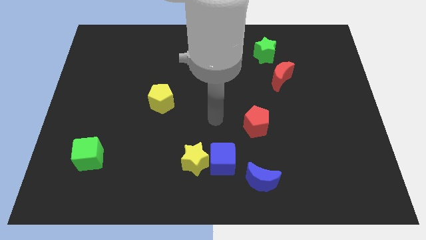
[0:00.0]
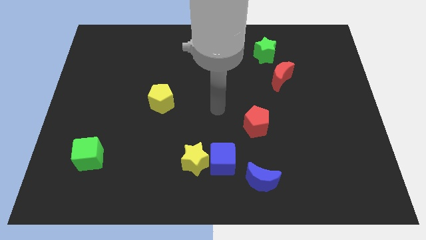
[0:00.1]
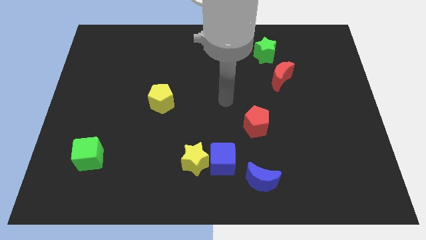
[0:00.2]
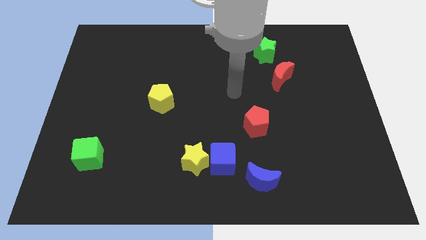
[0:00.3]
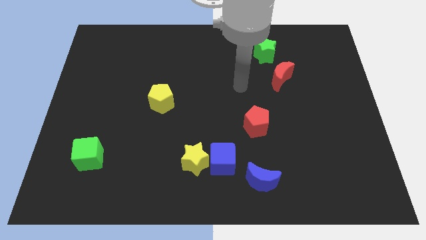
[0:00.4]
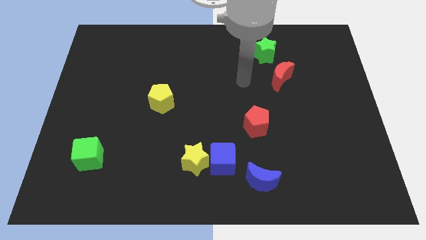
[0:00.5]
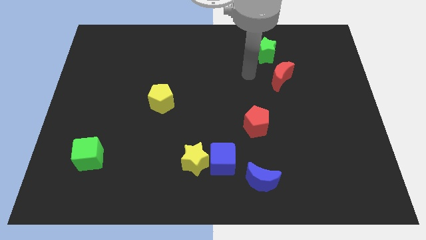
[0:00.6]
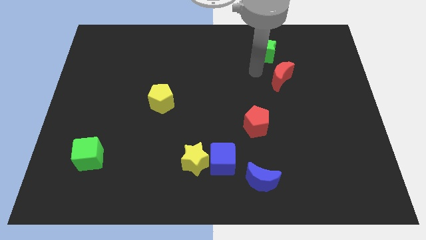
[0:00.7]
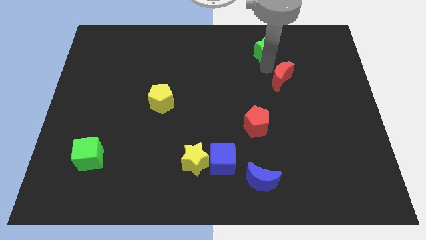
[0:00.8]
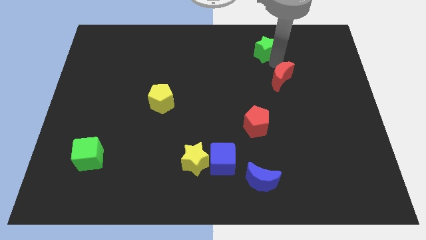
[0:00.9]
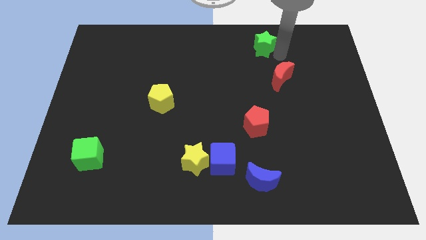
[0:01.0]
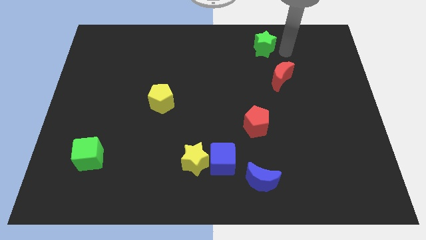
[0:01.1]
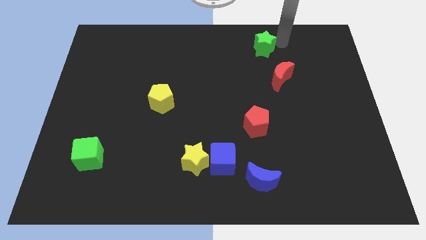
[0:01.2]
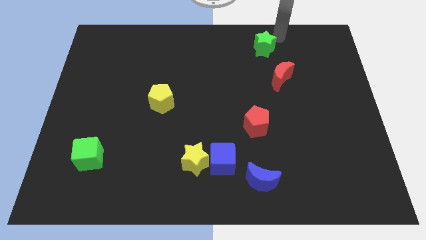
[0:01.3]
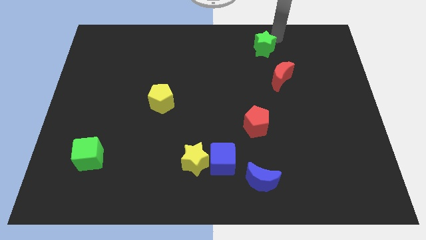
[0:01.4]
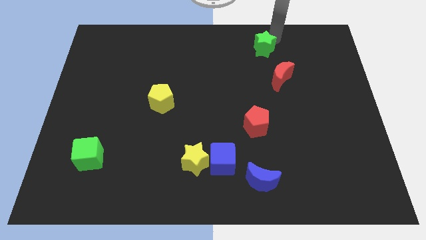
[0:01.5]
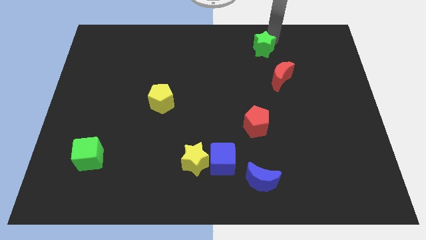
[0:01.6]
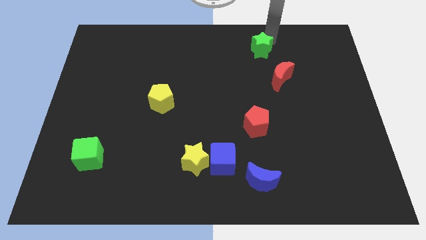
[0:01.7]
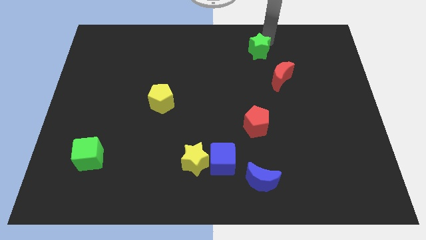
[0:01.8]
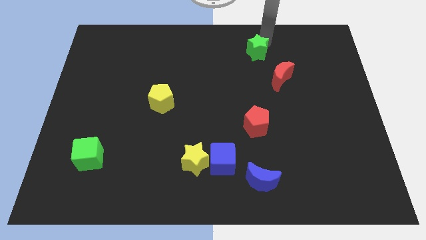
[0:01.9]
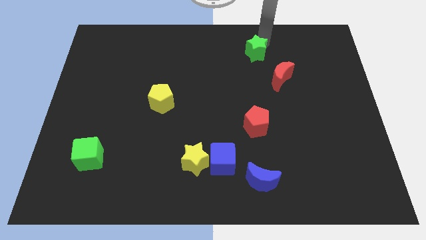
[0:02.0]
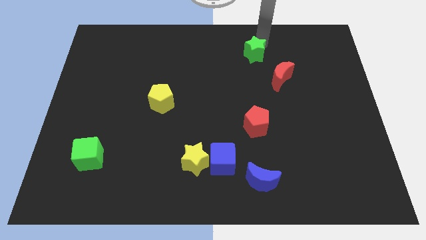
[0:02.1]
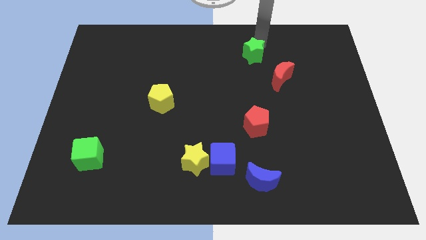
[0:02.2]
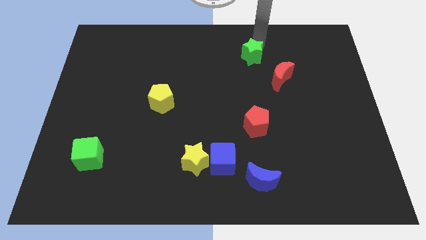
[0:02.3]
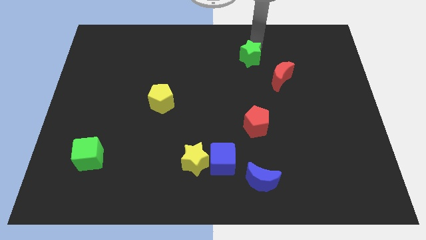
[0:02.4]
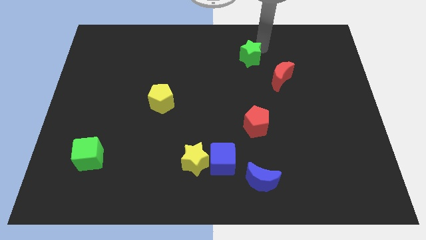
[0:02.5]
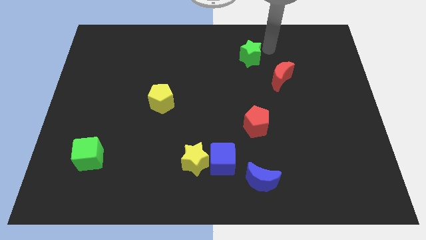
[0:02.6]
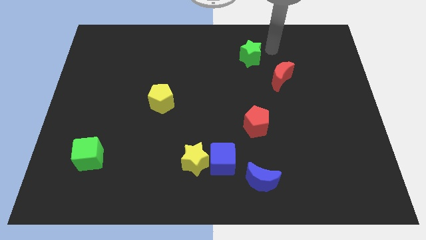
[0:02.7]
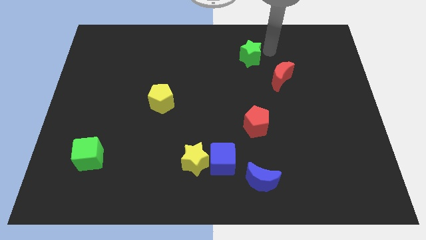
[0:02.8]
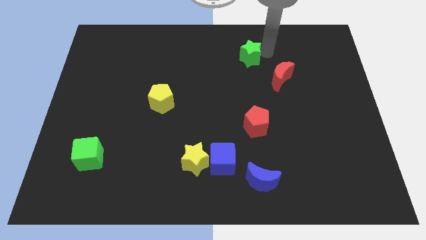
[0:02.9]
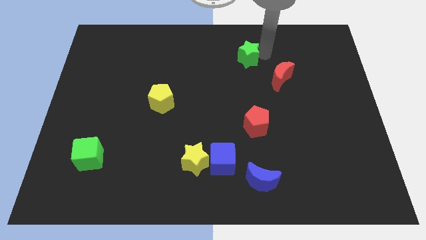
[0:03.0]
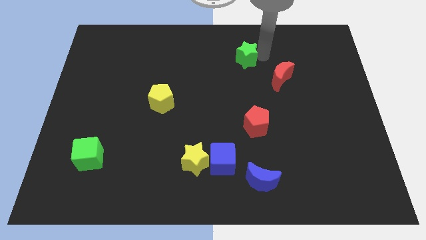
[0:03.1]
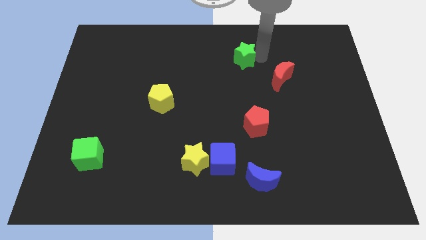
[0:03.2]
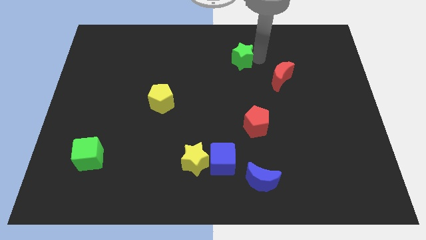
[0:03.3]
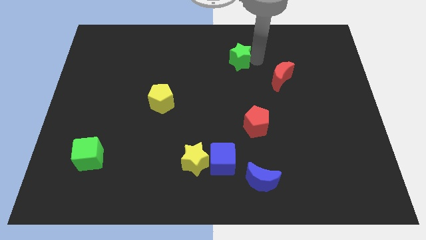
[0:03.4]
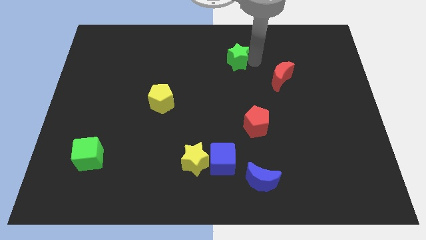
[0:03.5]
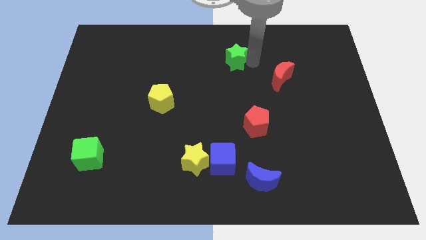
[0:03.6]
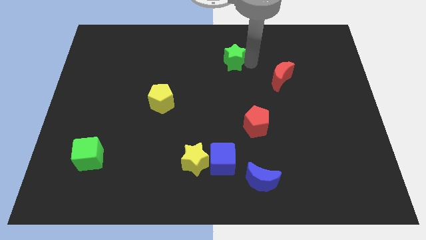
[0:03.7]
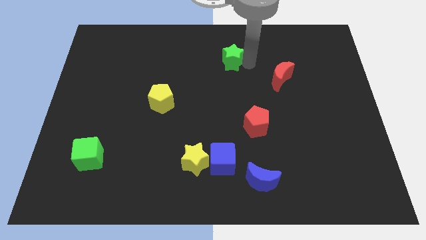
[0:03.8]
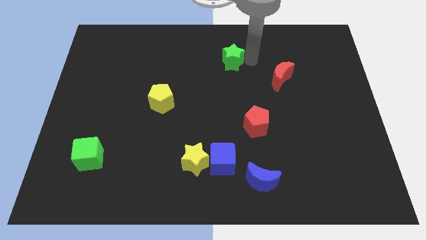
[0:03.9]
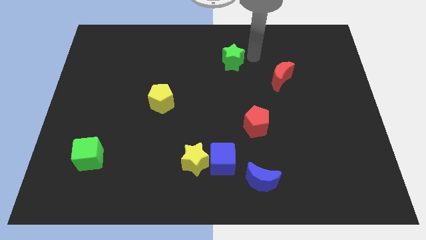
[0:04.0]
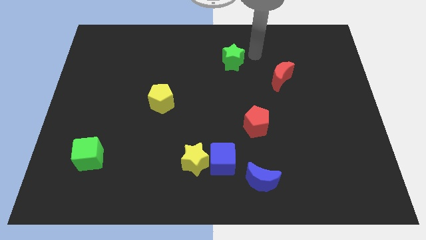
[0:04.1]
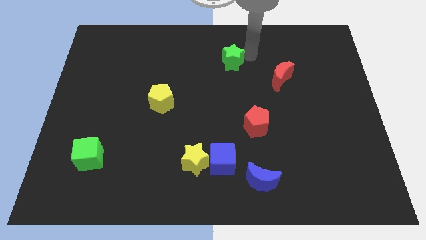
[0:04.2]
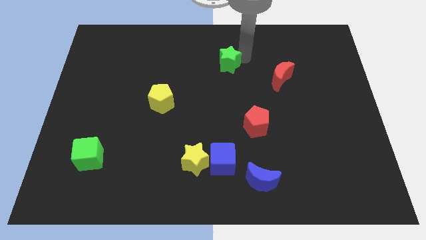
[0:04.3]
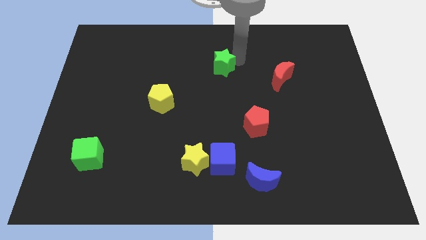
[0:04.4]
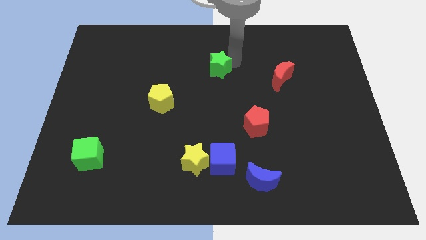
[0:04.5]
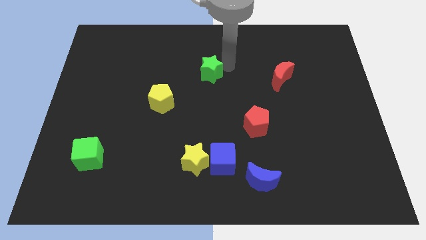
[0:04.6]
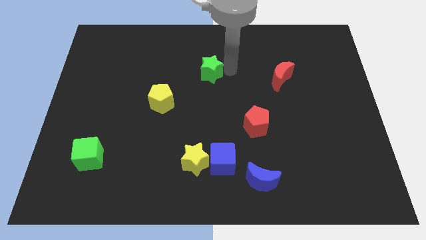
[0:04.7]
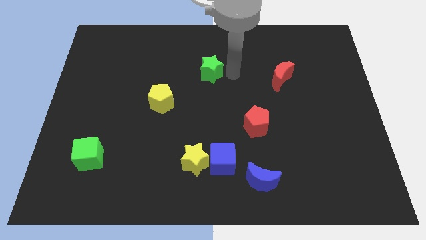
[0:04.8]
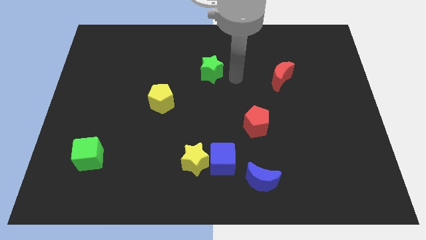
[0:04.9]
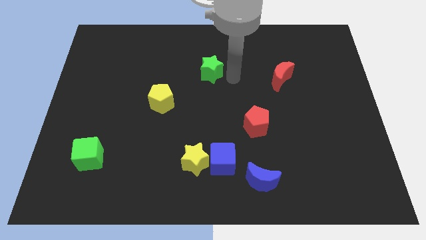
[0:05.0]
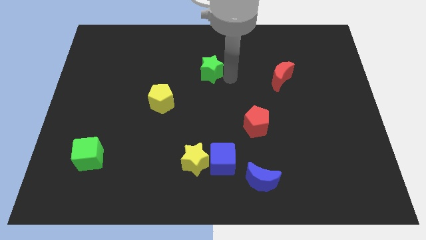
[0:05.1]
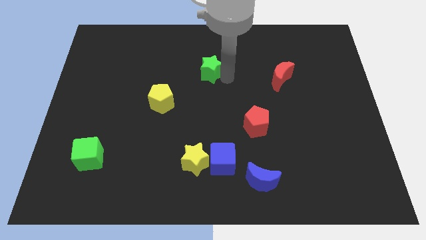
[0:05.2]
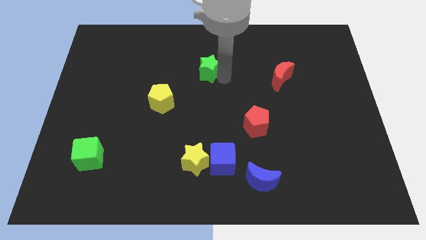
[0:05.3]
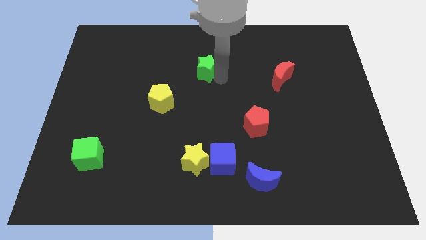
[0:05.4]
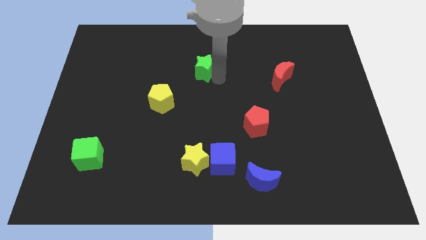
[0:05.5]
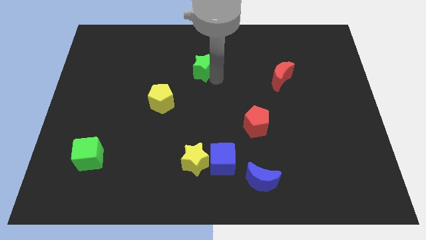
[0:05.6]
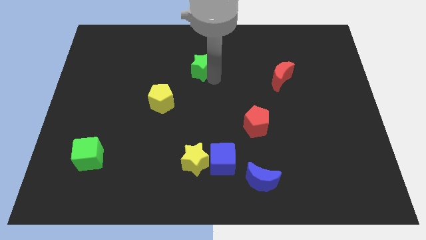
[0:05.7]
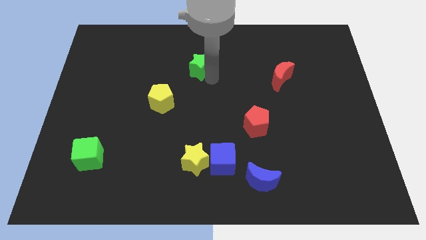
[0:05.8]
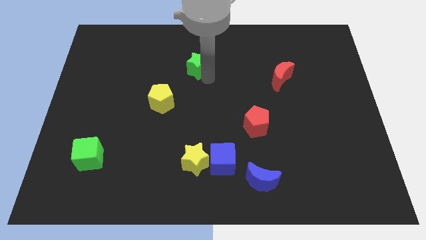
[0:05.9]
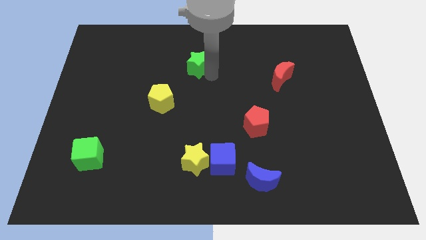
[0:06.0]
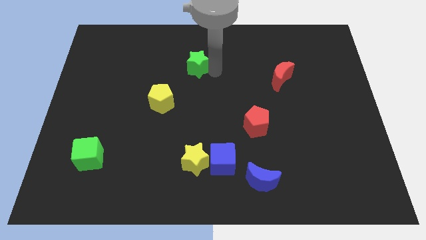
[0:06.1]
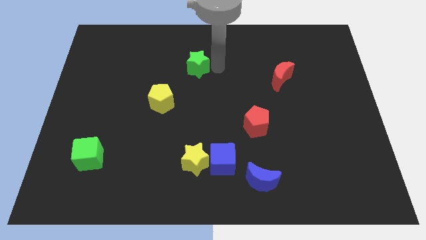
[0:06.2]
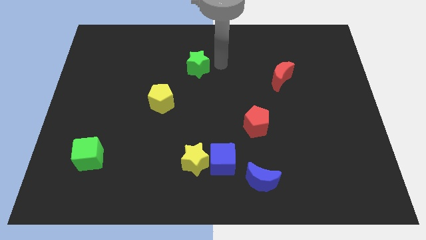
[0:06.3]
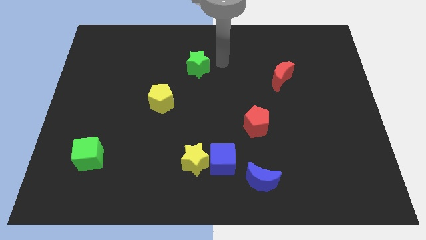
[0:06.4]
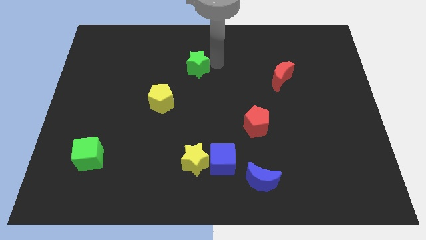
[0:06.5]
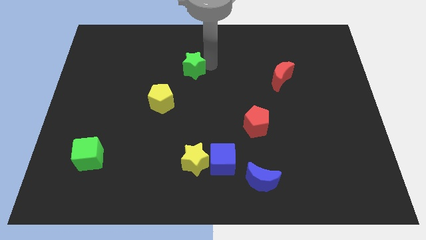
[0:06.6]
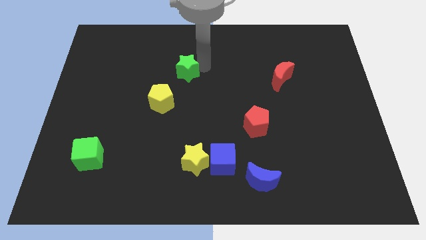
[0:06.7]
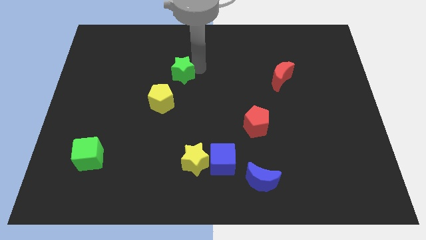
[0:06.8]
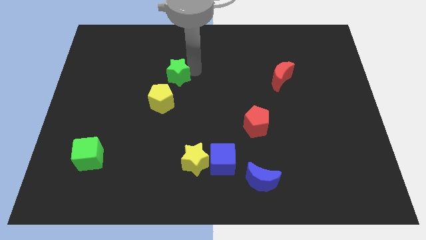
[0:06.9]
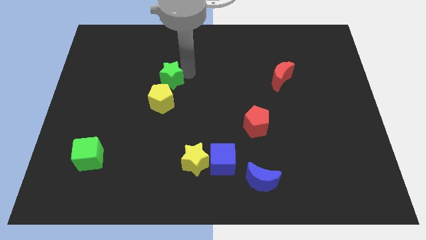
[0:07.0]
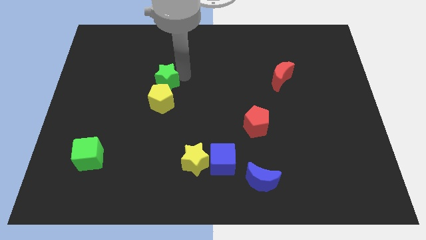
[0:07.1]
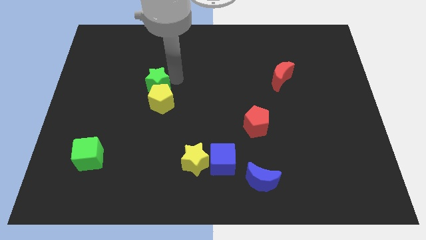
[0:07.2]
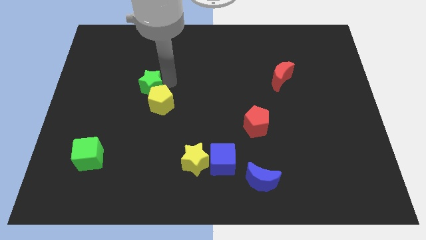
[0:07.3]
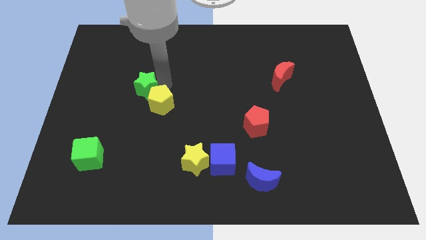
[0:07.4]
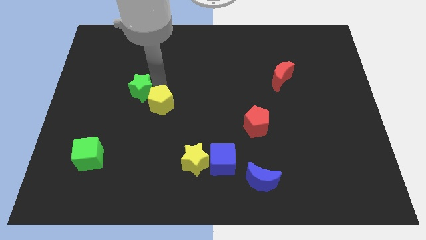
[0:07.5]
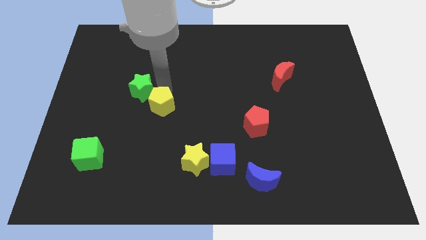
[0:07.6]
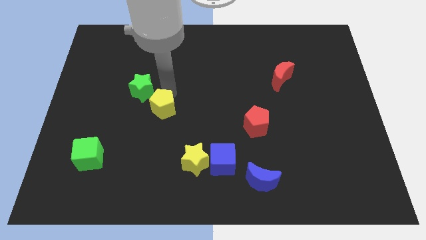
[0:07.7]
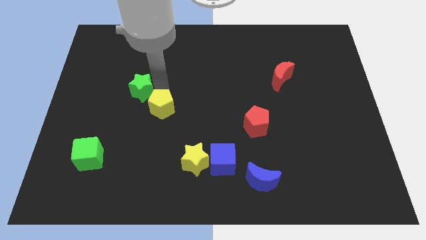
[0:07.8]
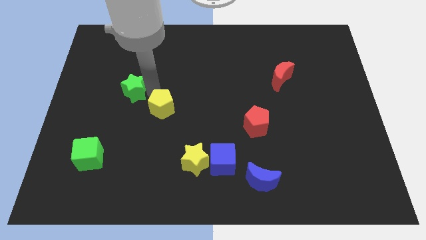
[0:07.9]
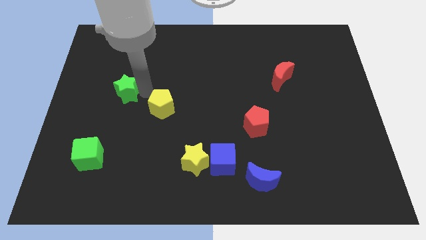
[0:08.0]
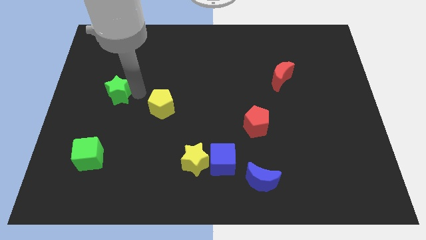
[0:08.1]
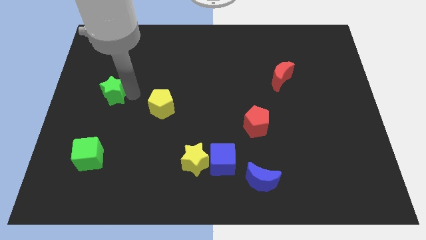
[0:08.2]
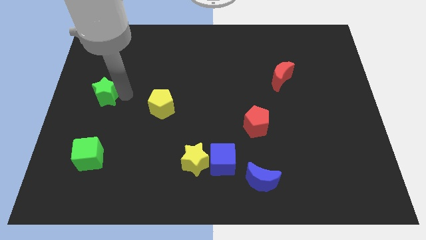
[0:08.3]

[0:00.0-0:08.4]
move the green star to the left side
